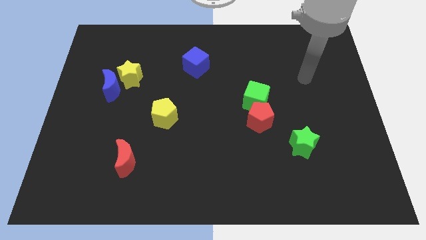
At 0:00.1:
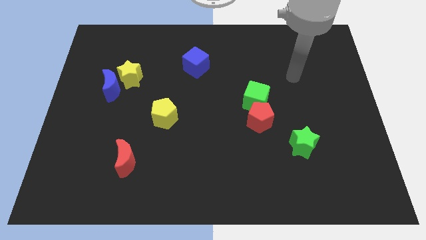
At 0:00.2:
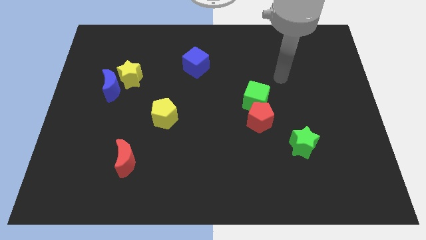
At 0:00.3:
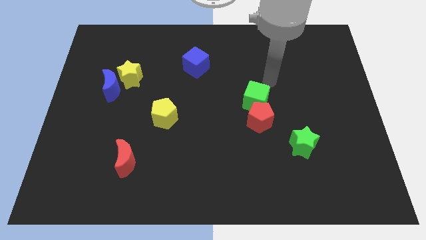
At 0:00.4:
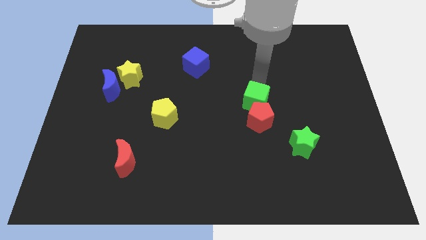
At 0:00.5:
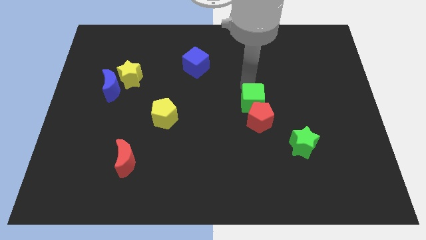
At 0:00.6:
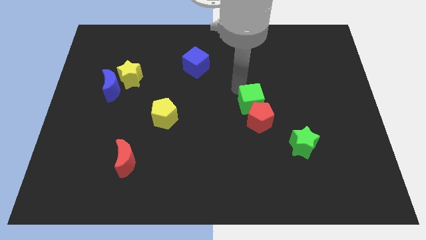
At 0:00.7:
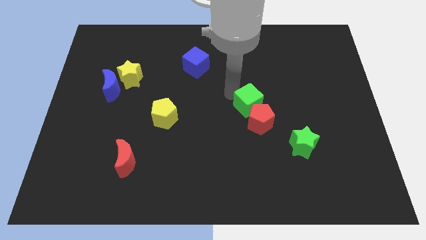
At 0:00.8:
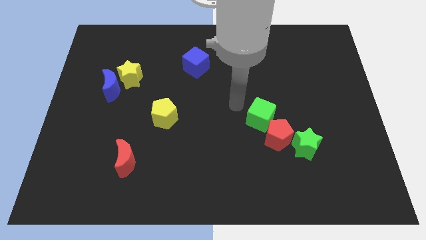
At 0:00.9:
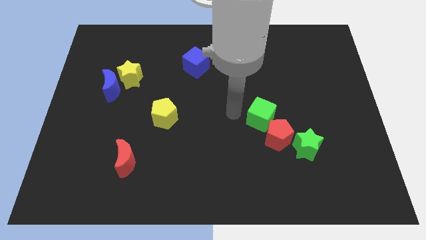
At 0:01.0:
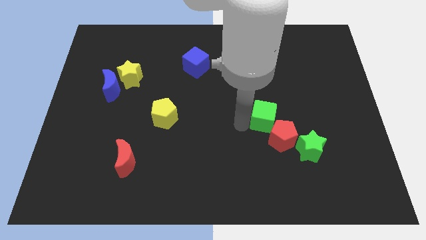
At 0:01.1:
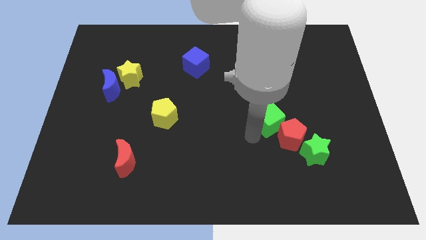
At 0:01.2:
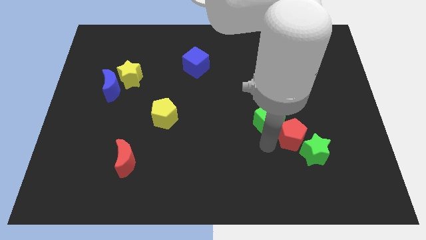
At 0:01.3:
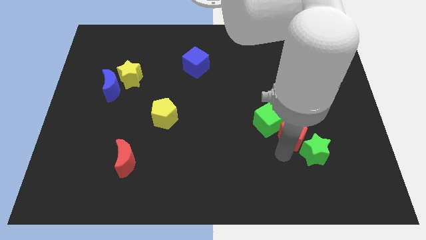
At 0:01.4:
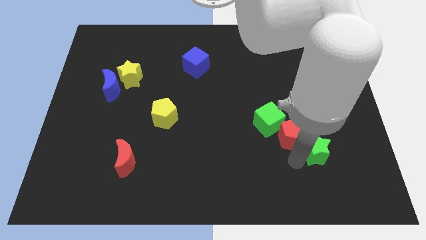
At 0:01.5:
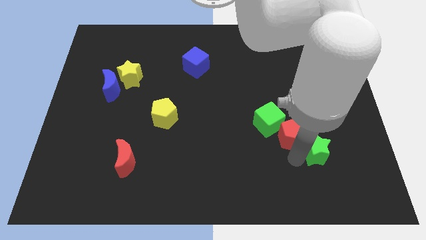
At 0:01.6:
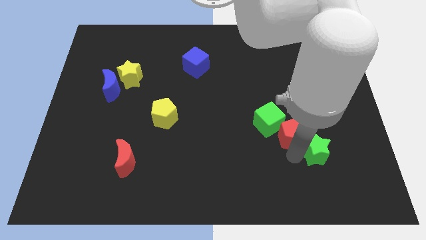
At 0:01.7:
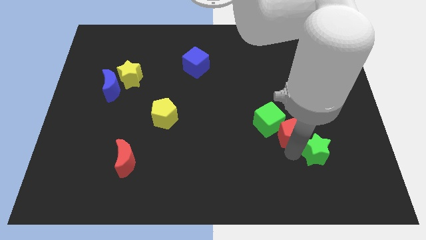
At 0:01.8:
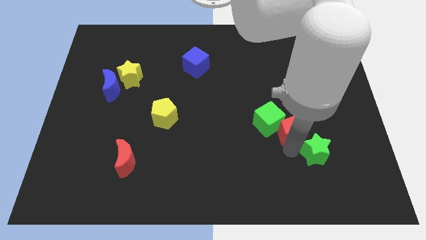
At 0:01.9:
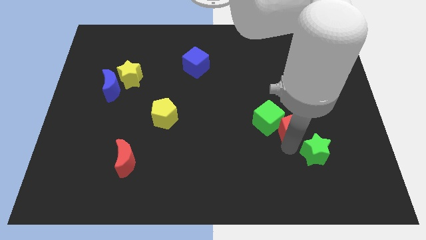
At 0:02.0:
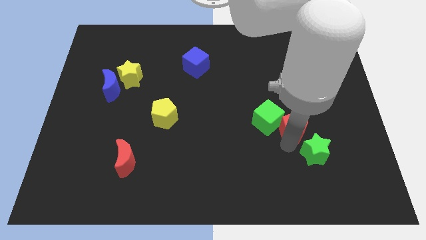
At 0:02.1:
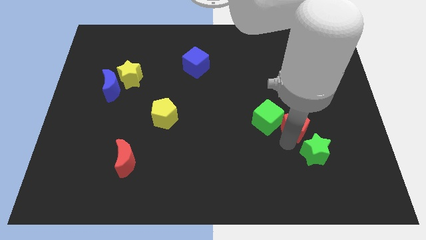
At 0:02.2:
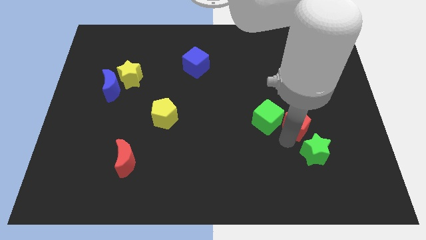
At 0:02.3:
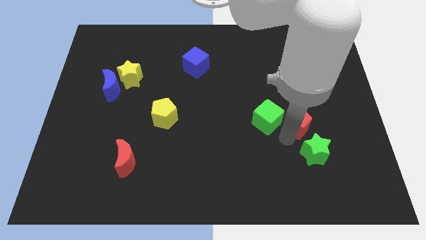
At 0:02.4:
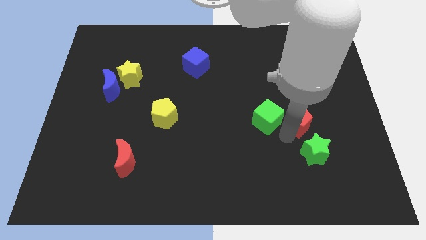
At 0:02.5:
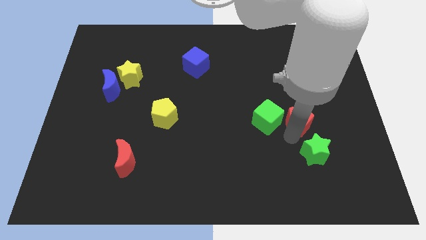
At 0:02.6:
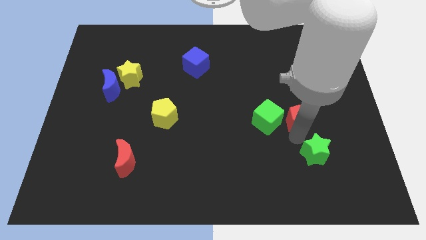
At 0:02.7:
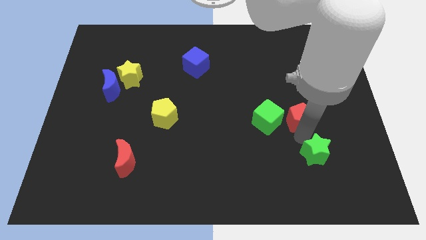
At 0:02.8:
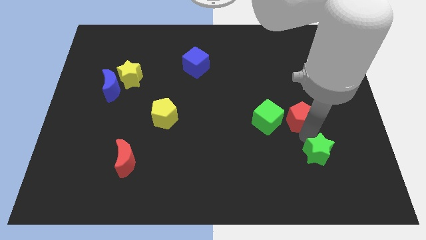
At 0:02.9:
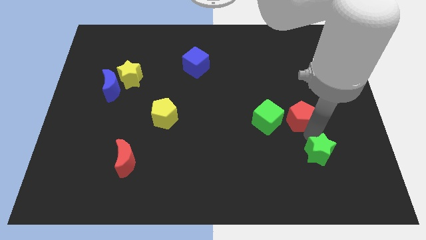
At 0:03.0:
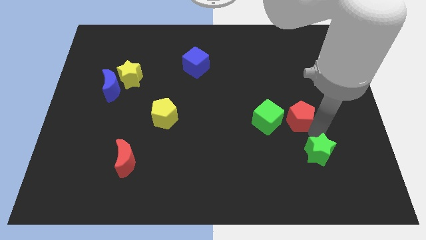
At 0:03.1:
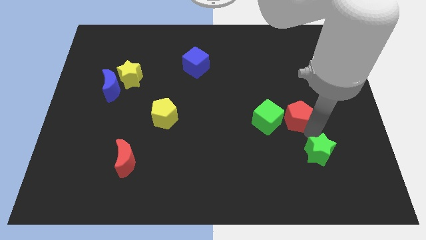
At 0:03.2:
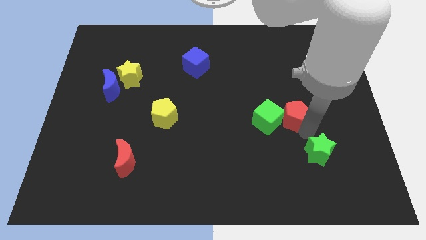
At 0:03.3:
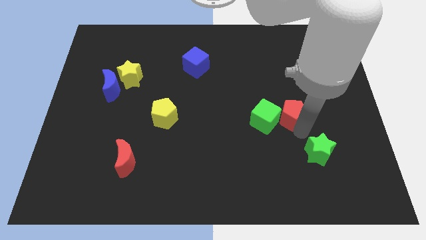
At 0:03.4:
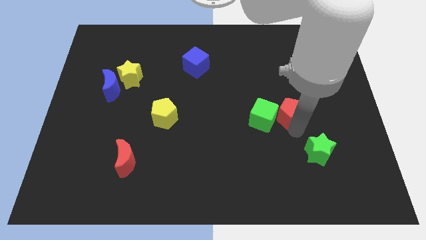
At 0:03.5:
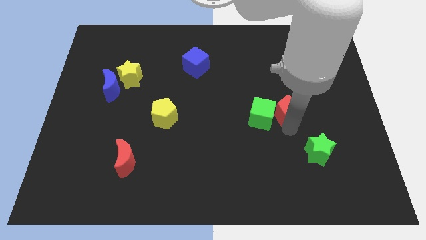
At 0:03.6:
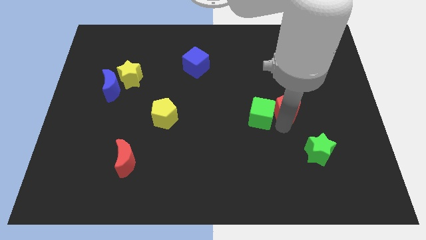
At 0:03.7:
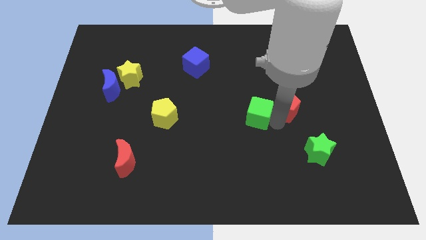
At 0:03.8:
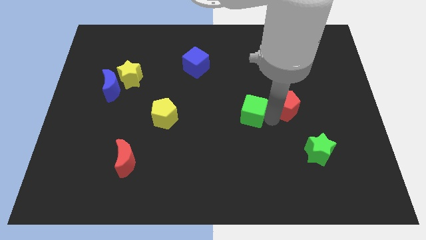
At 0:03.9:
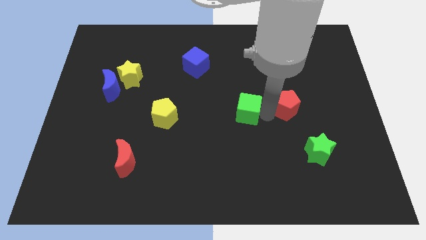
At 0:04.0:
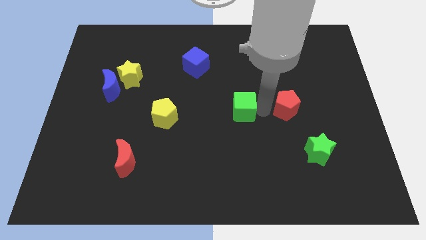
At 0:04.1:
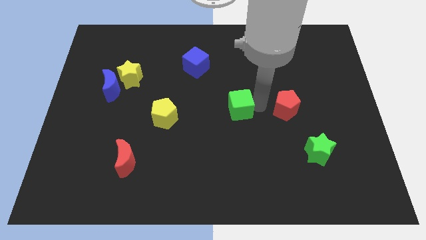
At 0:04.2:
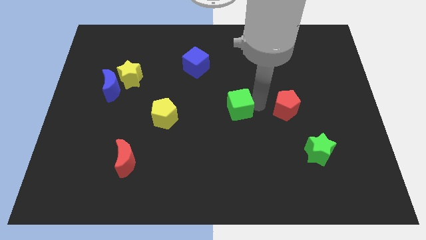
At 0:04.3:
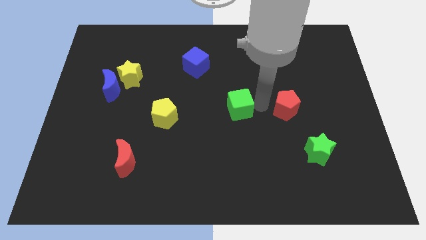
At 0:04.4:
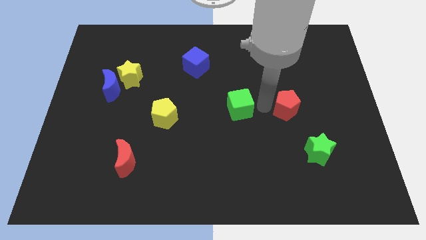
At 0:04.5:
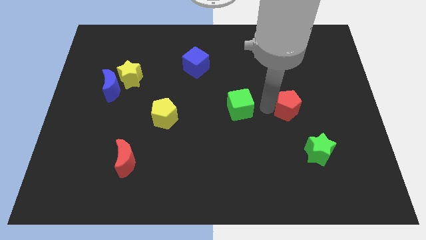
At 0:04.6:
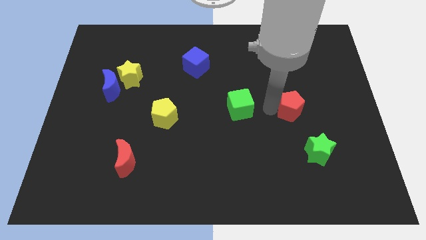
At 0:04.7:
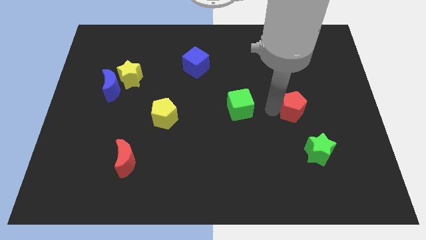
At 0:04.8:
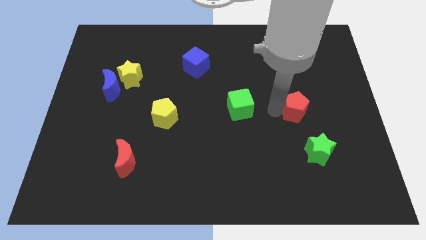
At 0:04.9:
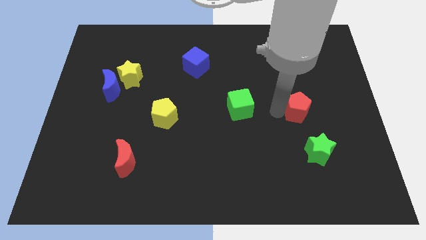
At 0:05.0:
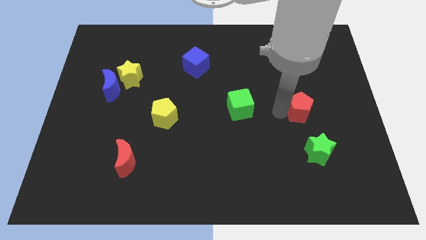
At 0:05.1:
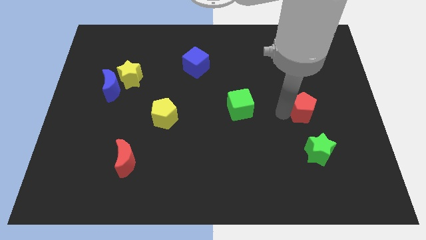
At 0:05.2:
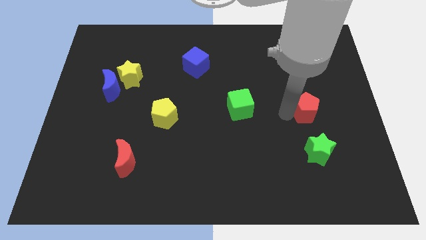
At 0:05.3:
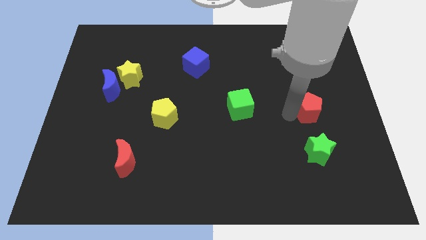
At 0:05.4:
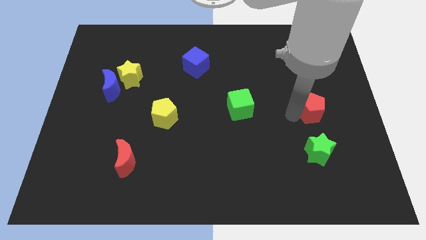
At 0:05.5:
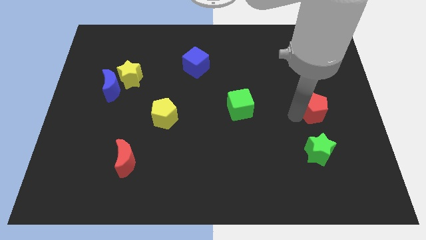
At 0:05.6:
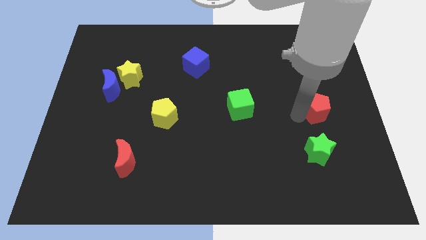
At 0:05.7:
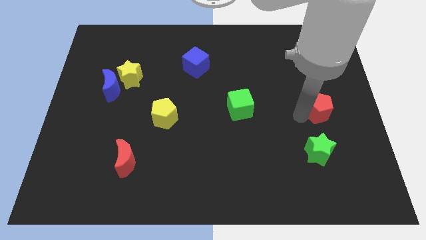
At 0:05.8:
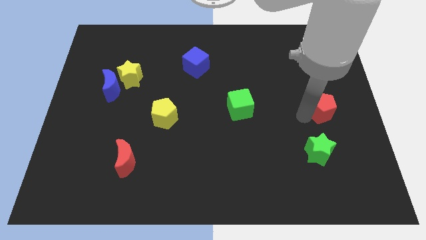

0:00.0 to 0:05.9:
put the red pentagon to the right side
